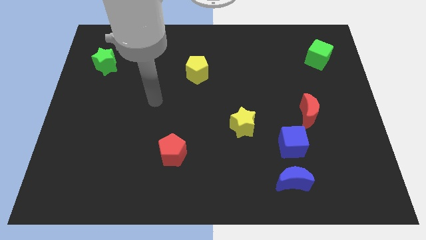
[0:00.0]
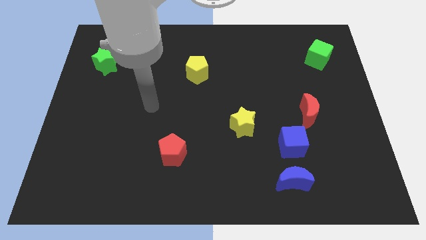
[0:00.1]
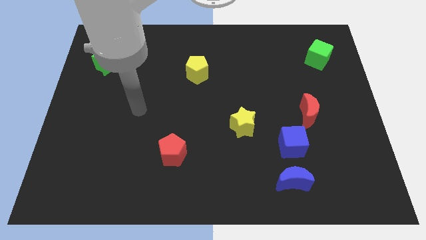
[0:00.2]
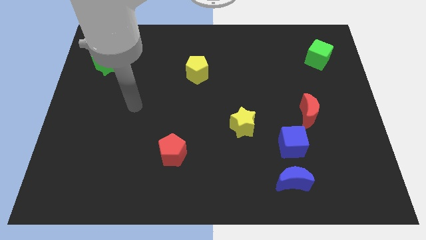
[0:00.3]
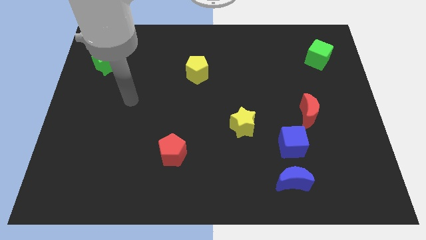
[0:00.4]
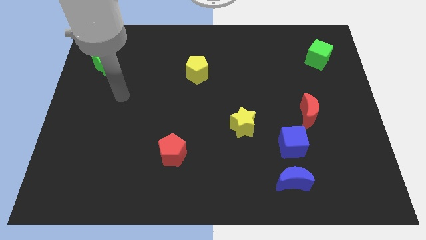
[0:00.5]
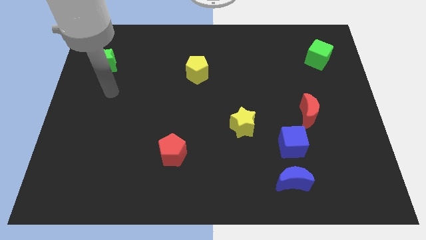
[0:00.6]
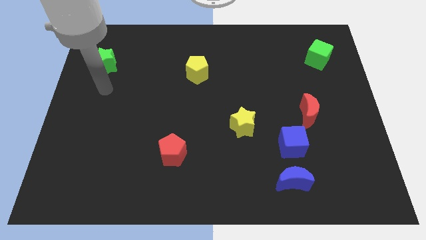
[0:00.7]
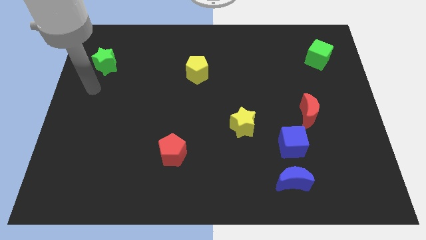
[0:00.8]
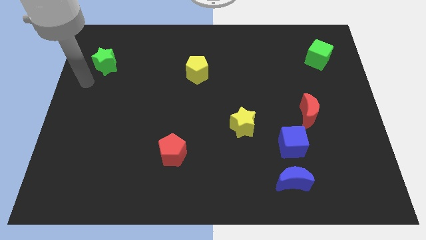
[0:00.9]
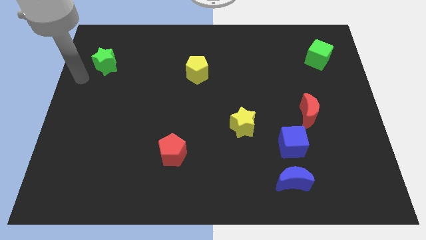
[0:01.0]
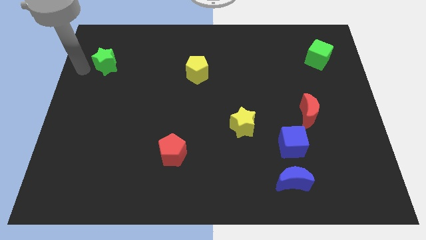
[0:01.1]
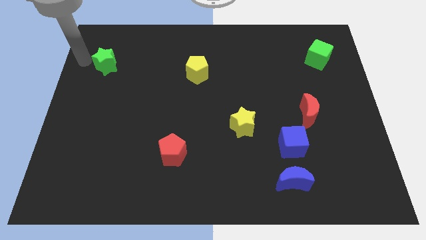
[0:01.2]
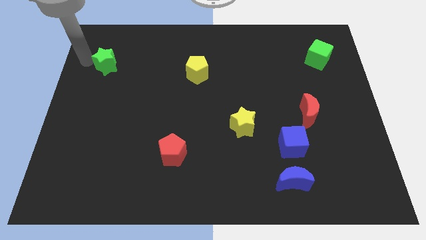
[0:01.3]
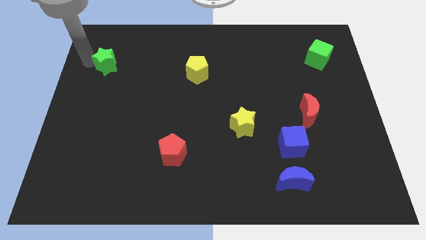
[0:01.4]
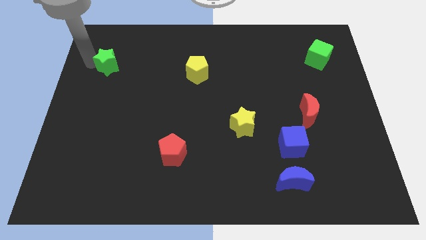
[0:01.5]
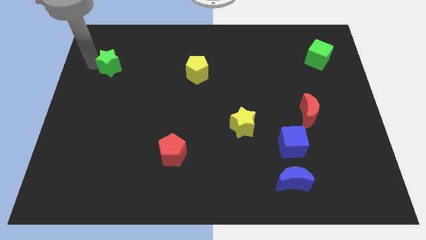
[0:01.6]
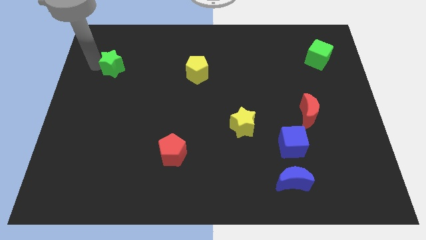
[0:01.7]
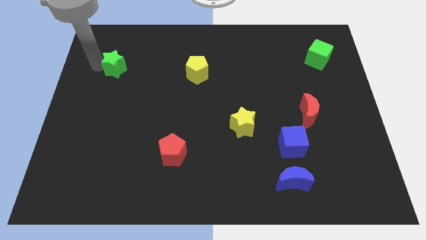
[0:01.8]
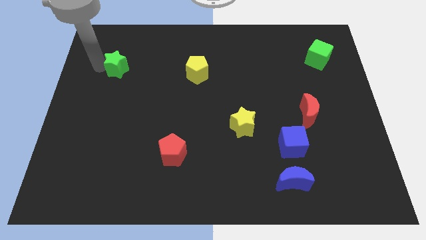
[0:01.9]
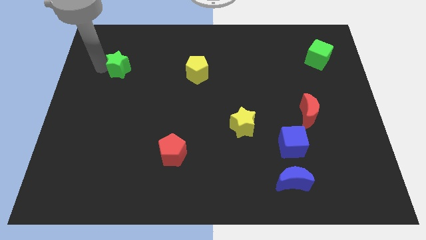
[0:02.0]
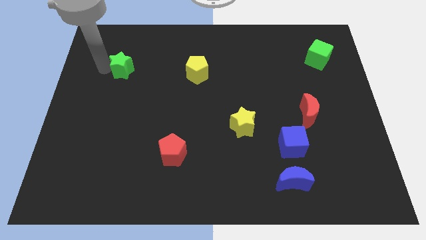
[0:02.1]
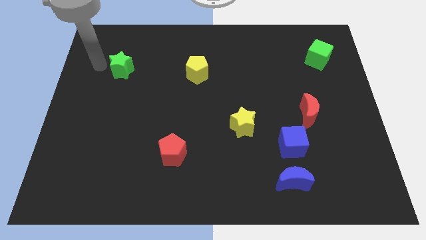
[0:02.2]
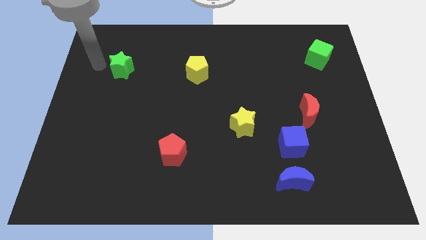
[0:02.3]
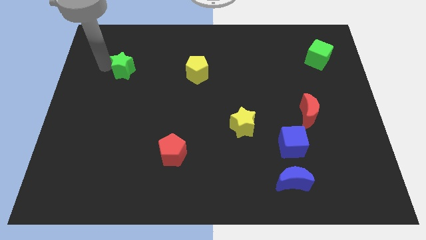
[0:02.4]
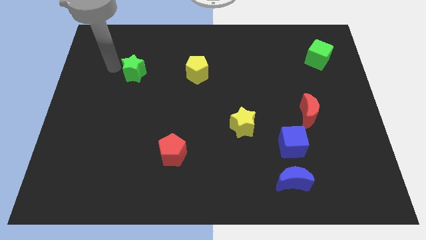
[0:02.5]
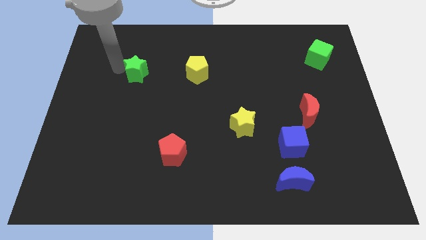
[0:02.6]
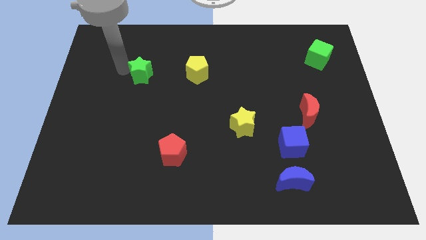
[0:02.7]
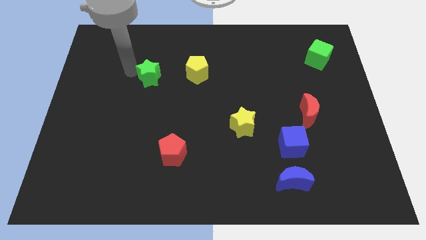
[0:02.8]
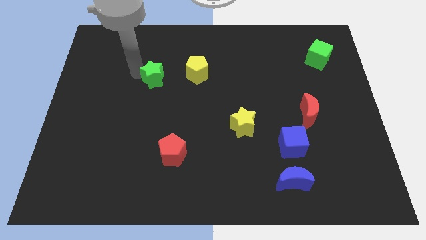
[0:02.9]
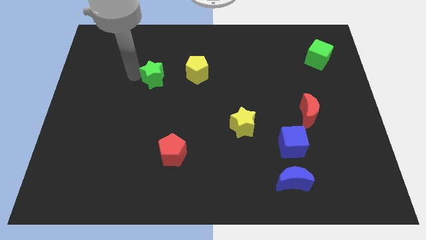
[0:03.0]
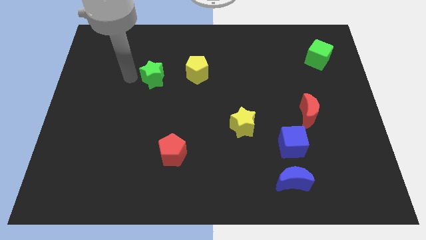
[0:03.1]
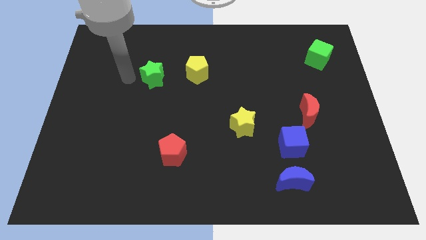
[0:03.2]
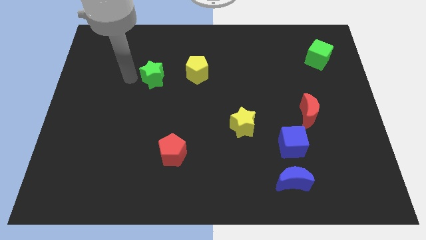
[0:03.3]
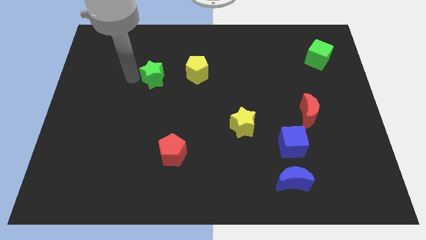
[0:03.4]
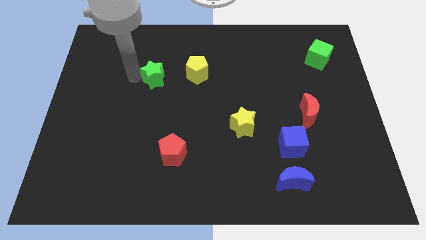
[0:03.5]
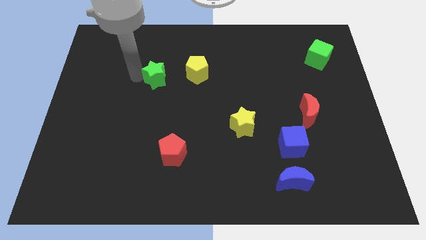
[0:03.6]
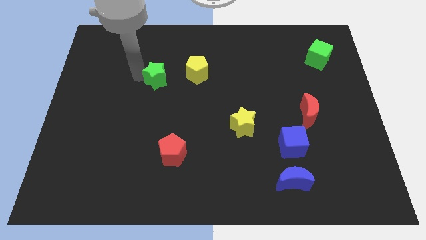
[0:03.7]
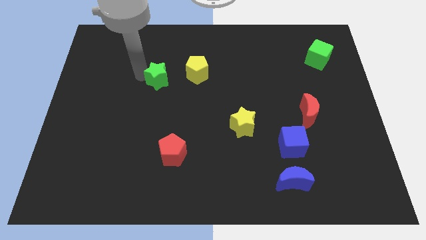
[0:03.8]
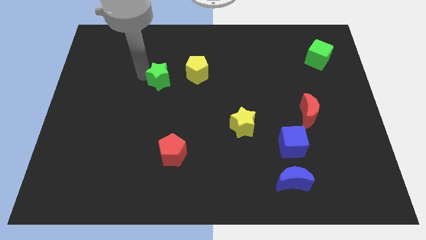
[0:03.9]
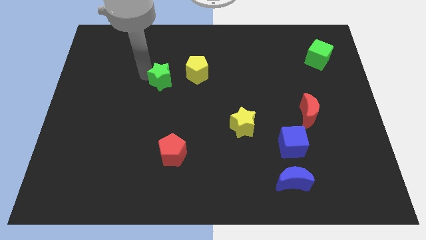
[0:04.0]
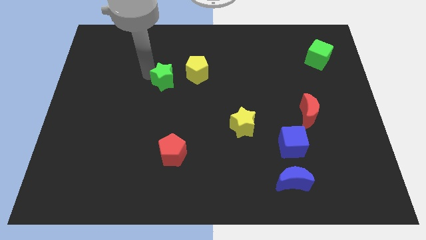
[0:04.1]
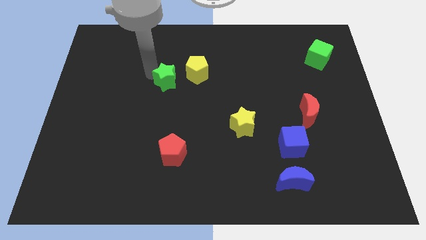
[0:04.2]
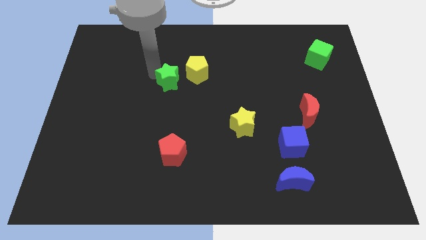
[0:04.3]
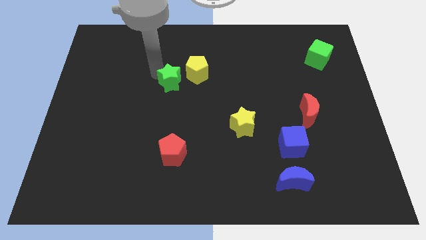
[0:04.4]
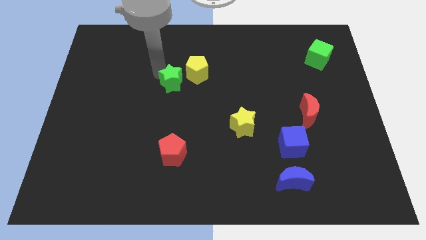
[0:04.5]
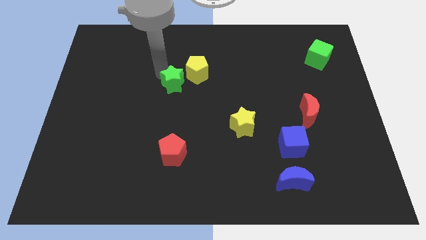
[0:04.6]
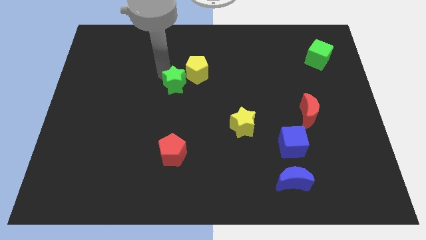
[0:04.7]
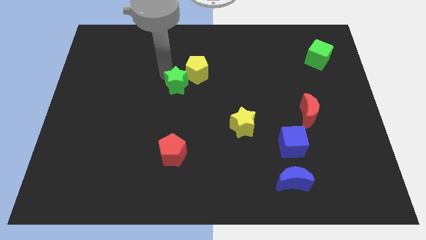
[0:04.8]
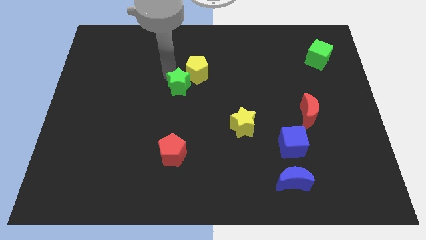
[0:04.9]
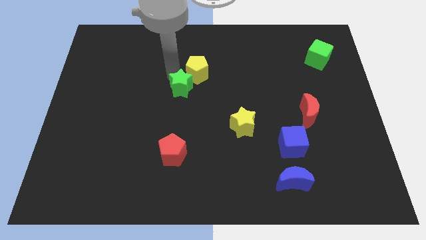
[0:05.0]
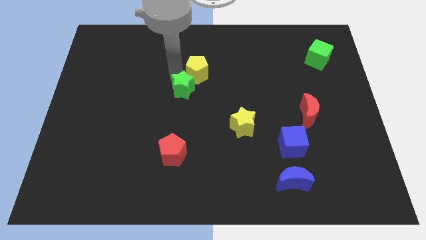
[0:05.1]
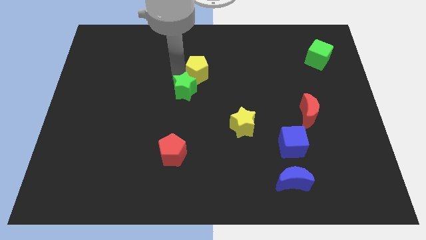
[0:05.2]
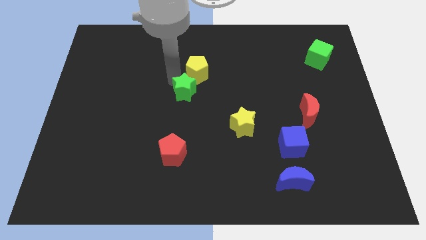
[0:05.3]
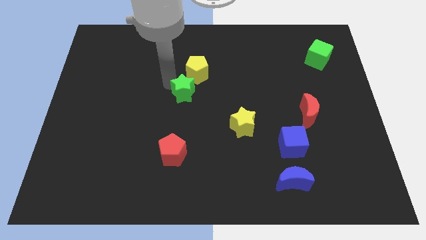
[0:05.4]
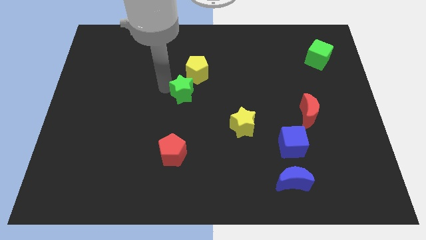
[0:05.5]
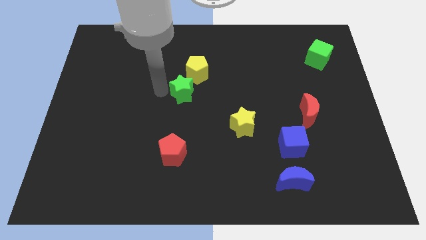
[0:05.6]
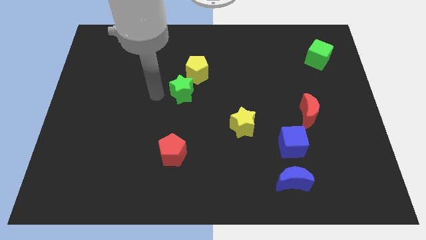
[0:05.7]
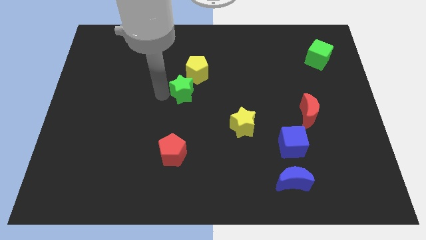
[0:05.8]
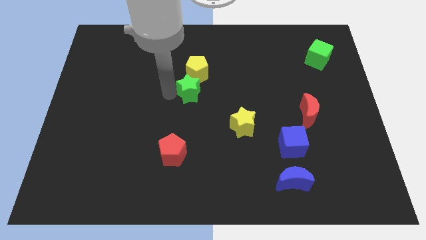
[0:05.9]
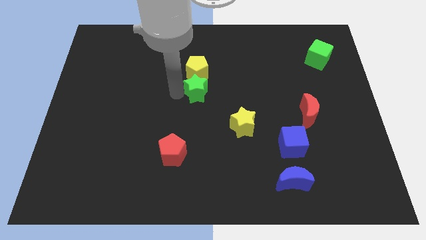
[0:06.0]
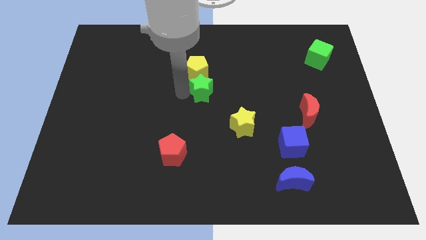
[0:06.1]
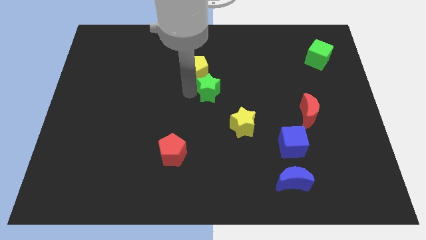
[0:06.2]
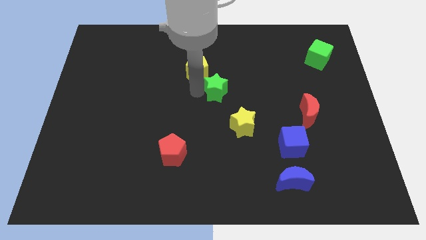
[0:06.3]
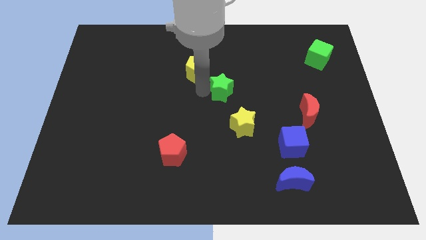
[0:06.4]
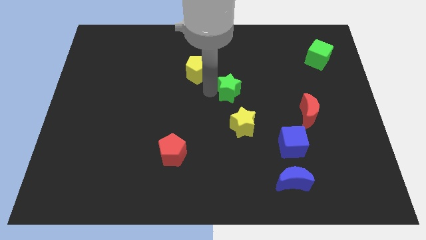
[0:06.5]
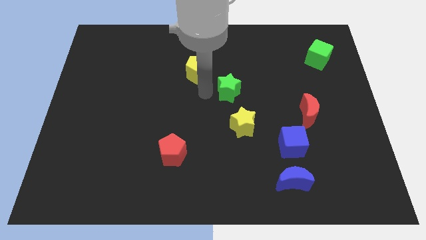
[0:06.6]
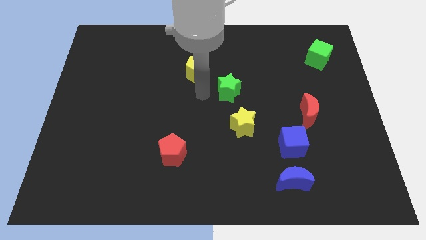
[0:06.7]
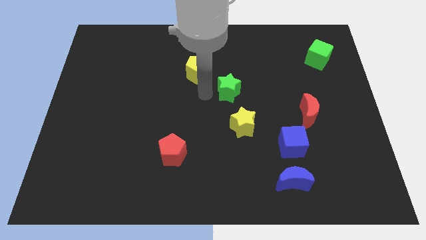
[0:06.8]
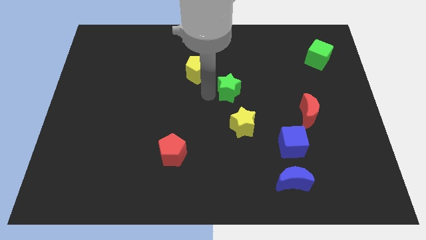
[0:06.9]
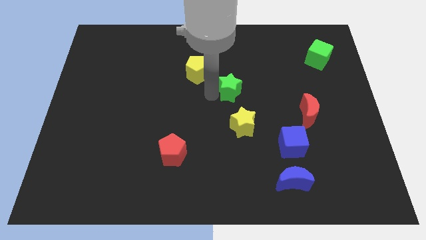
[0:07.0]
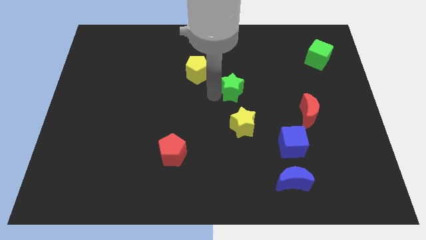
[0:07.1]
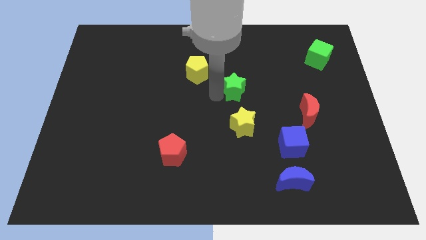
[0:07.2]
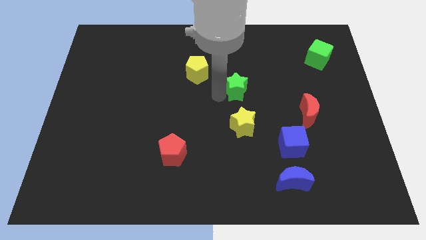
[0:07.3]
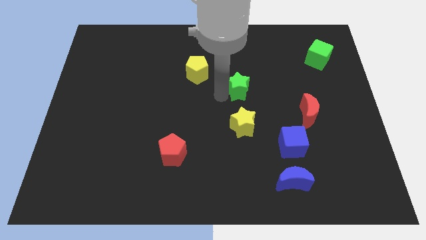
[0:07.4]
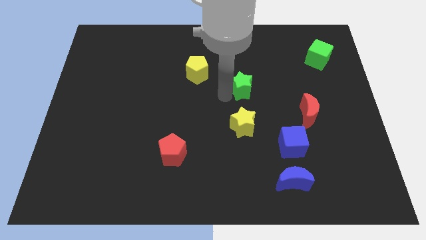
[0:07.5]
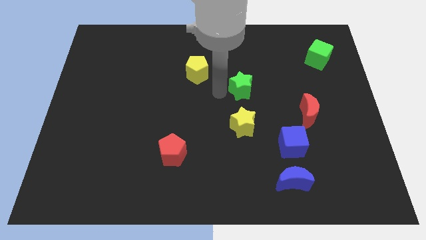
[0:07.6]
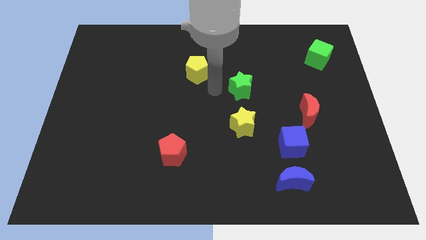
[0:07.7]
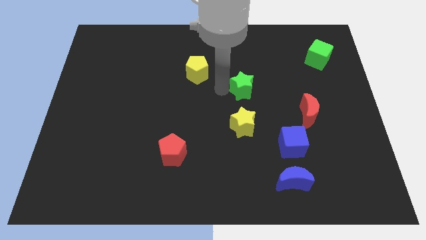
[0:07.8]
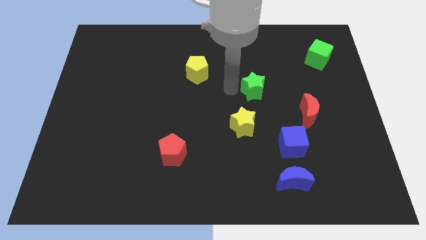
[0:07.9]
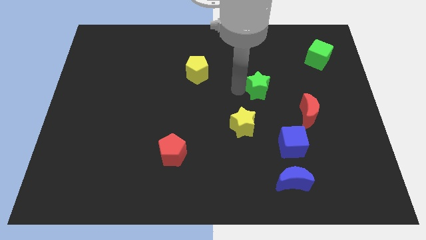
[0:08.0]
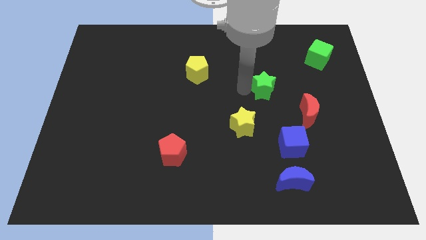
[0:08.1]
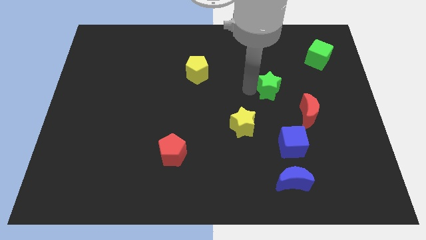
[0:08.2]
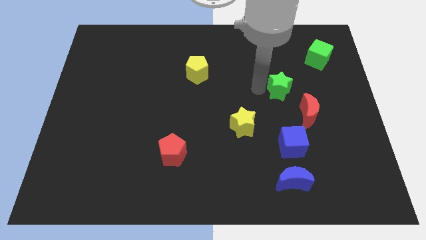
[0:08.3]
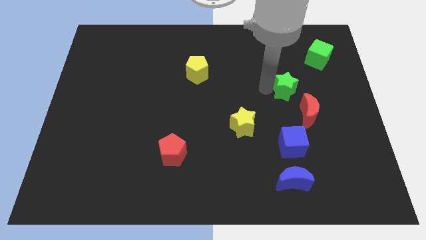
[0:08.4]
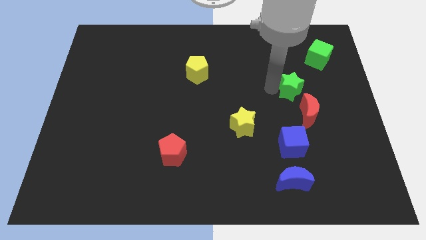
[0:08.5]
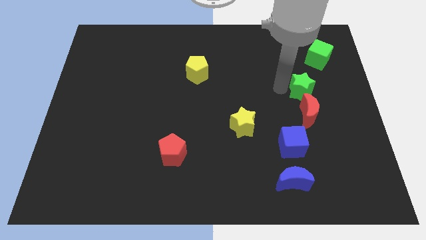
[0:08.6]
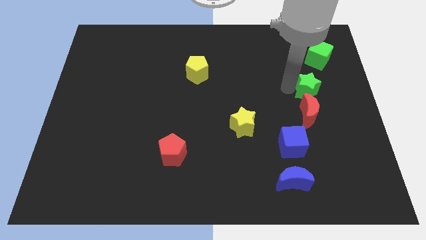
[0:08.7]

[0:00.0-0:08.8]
move the green star diagonally up and to the right of the red moon
